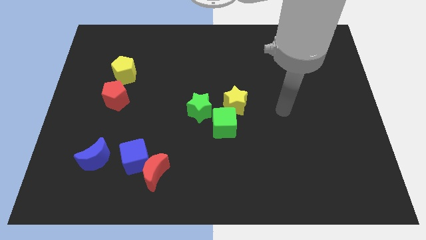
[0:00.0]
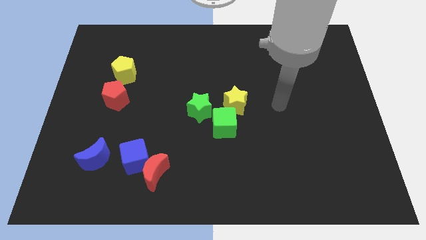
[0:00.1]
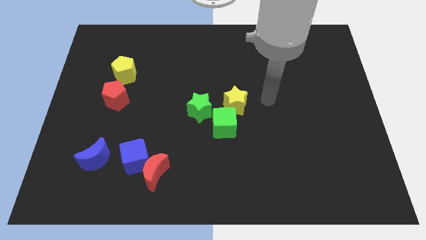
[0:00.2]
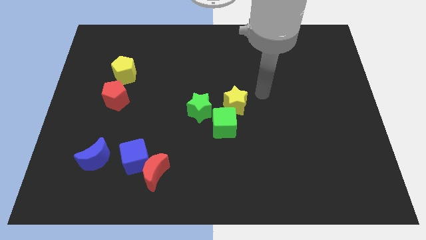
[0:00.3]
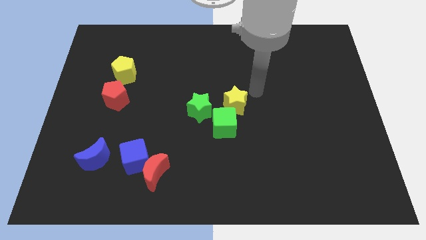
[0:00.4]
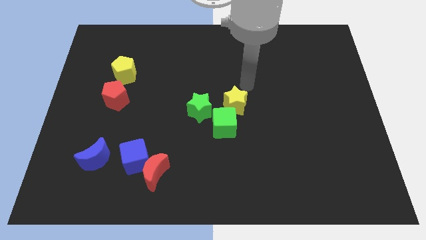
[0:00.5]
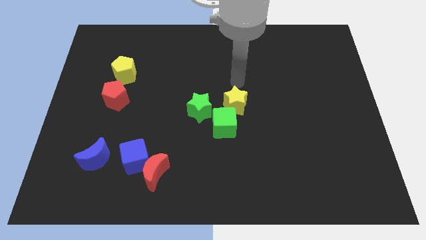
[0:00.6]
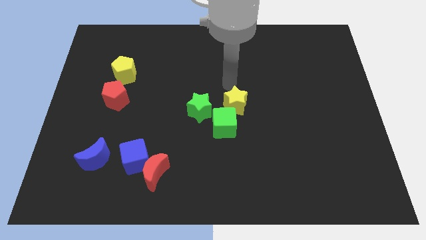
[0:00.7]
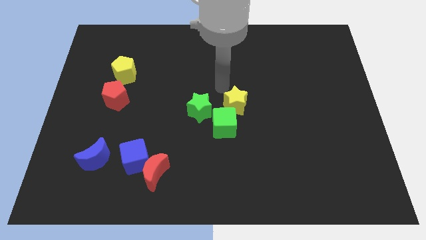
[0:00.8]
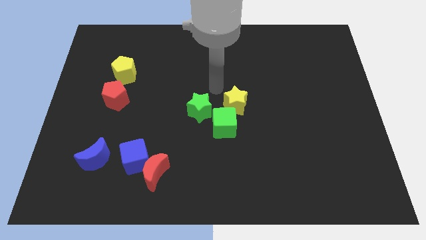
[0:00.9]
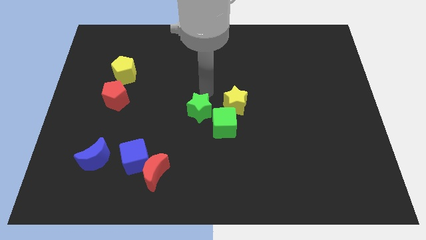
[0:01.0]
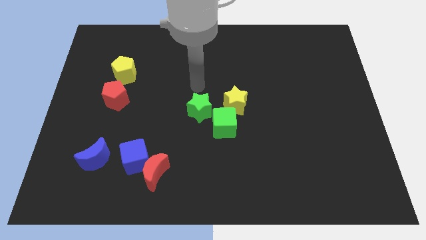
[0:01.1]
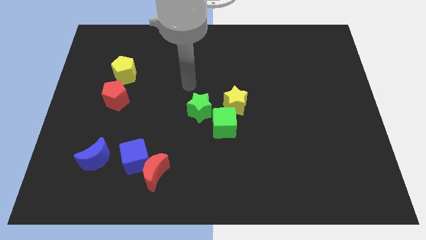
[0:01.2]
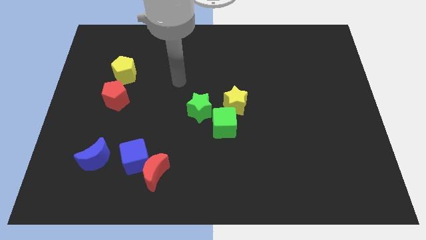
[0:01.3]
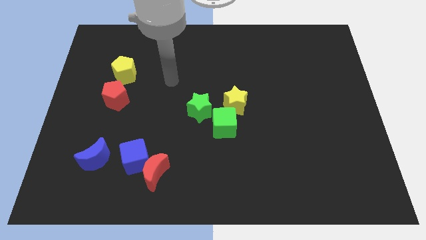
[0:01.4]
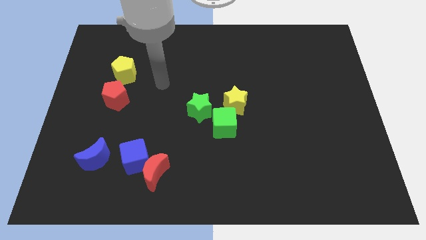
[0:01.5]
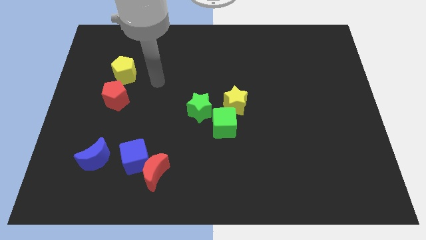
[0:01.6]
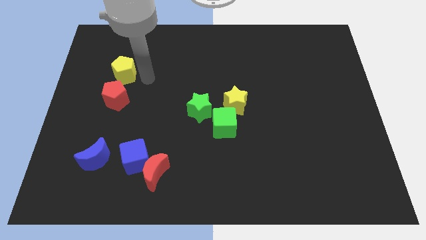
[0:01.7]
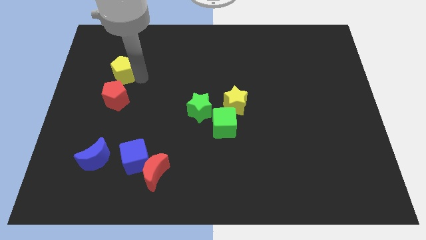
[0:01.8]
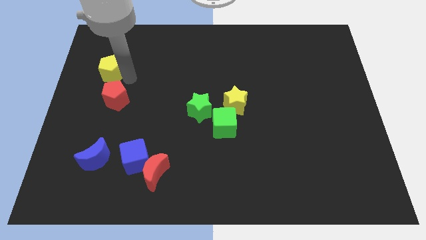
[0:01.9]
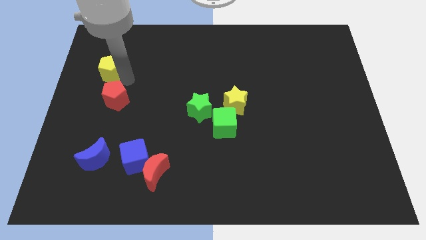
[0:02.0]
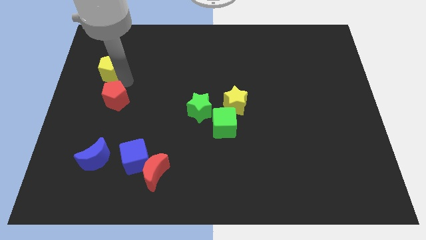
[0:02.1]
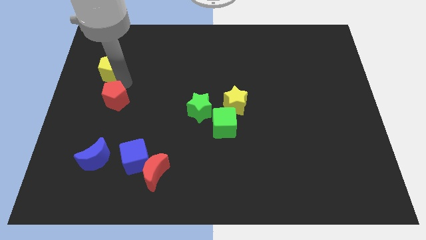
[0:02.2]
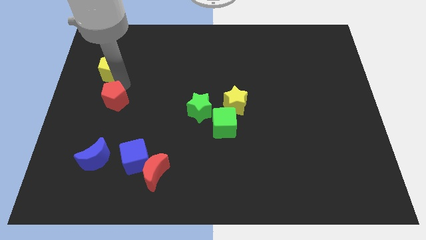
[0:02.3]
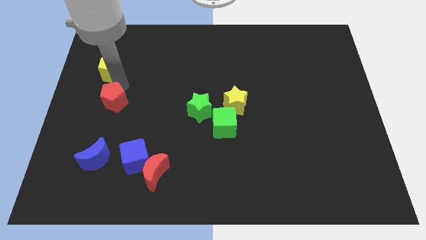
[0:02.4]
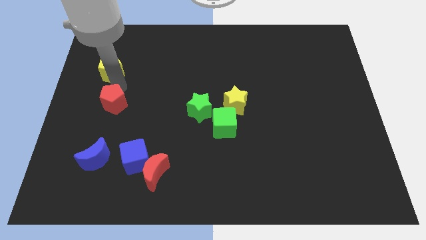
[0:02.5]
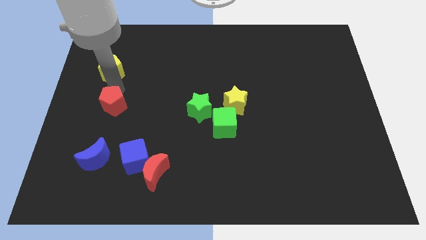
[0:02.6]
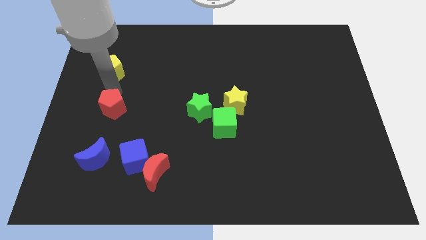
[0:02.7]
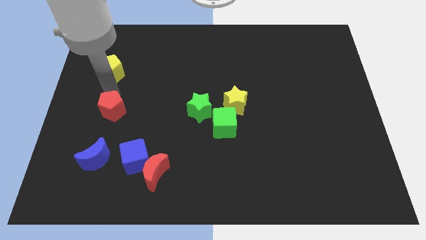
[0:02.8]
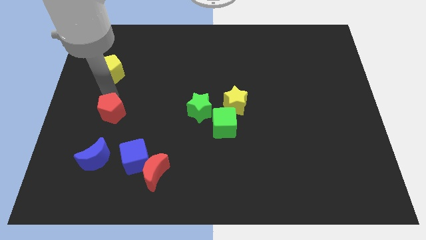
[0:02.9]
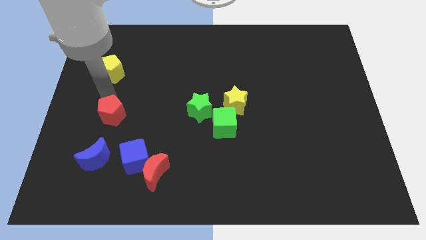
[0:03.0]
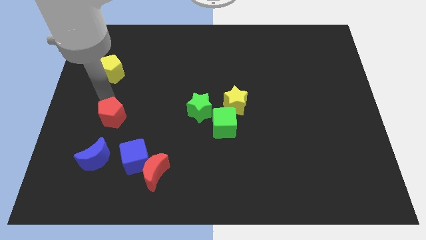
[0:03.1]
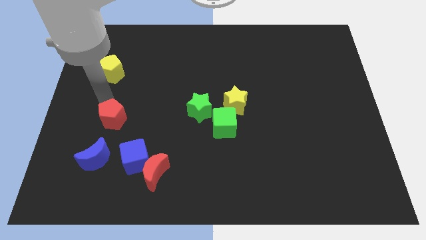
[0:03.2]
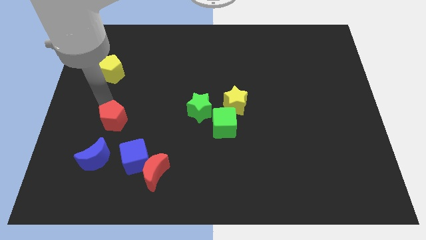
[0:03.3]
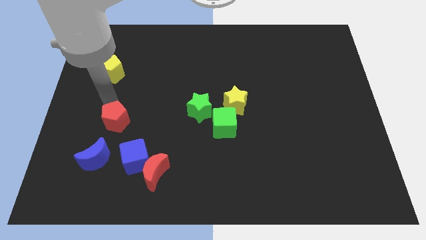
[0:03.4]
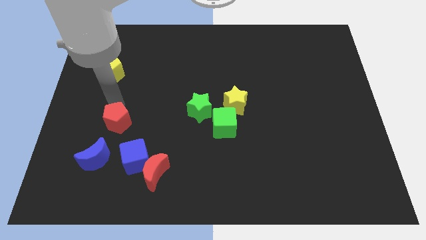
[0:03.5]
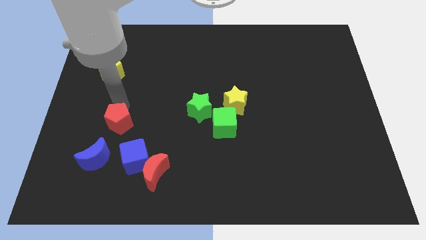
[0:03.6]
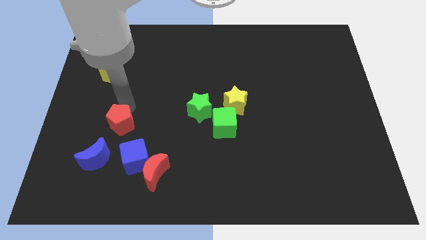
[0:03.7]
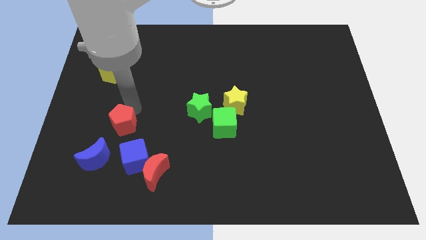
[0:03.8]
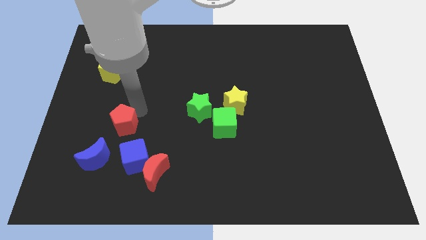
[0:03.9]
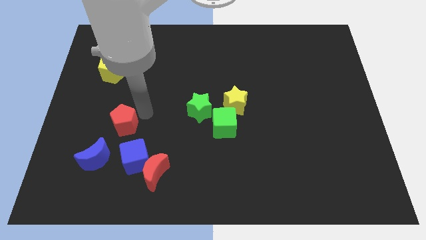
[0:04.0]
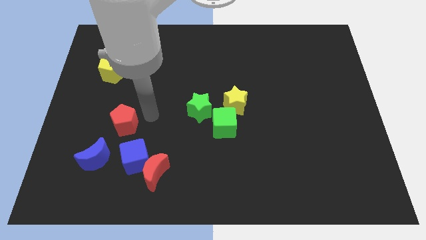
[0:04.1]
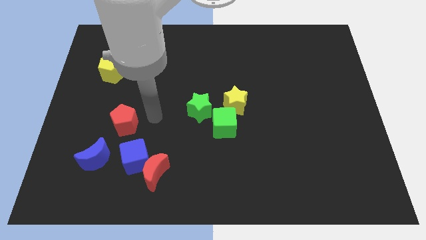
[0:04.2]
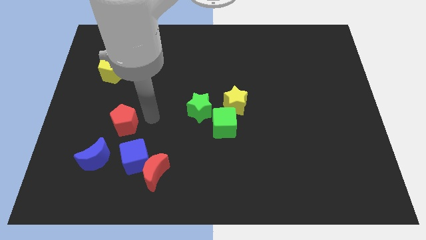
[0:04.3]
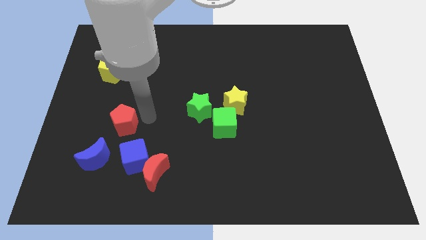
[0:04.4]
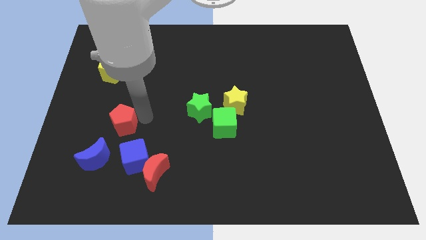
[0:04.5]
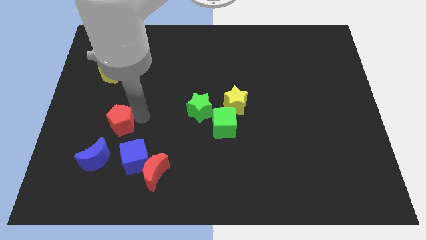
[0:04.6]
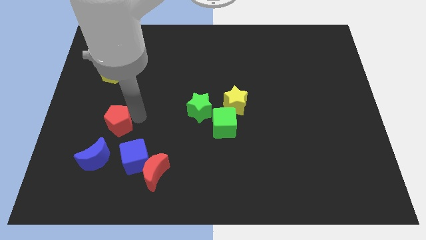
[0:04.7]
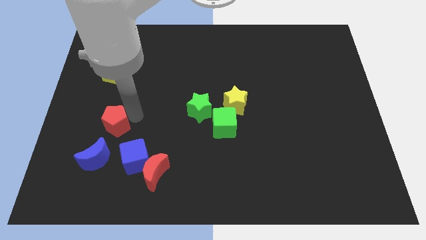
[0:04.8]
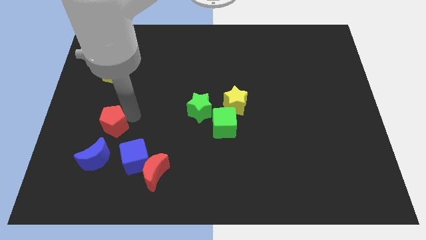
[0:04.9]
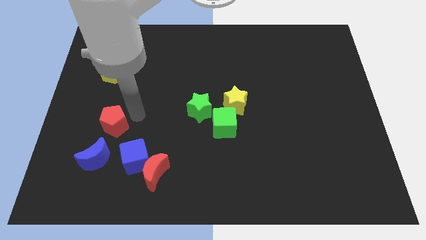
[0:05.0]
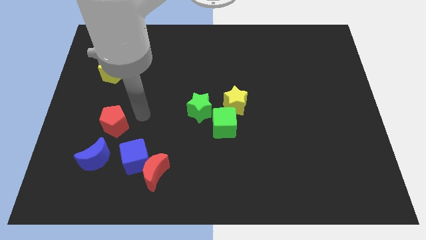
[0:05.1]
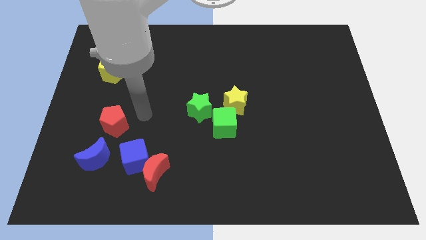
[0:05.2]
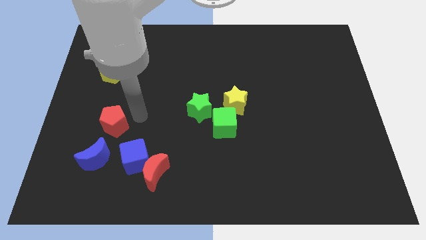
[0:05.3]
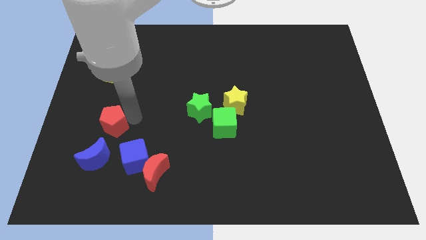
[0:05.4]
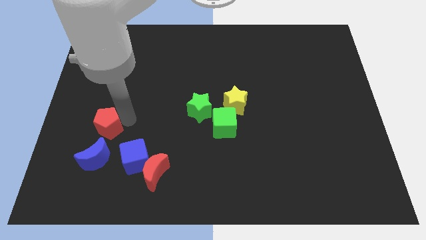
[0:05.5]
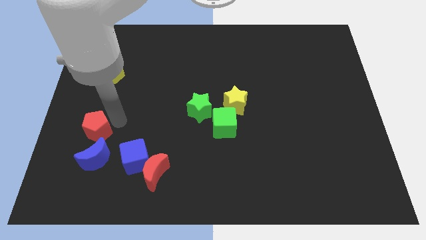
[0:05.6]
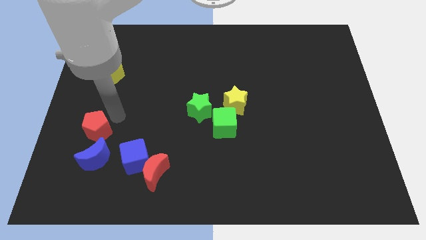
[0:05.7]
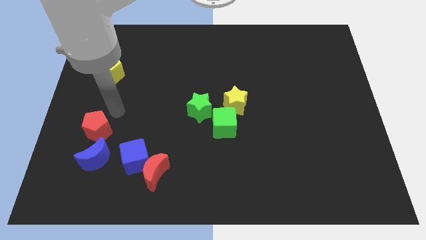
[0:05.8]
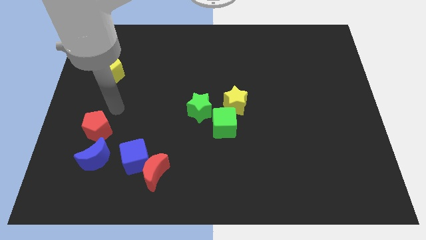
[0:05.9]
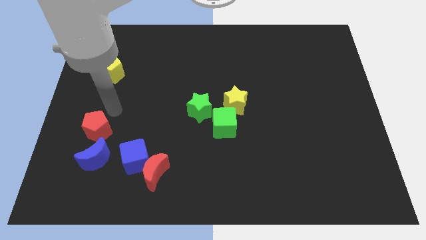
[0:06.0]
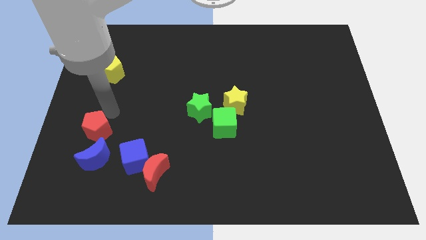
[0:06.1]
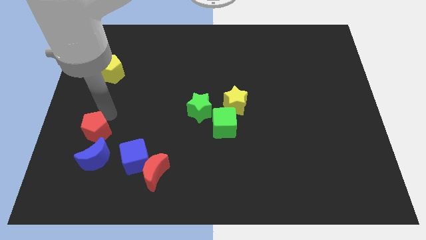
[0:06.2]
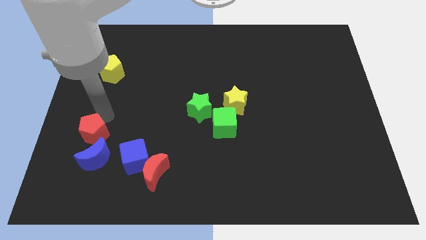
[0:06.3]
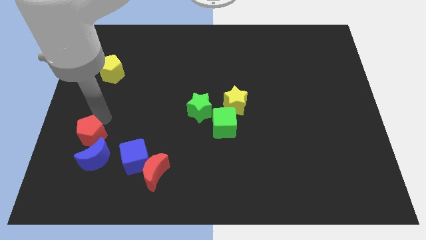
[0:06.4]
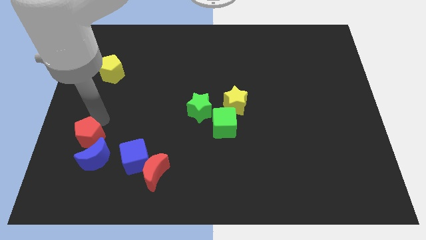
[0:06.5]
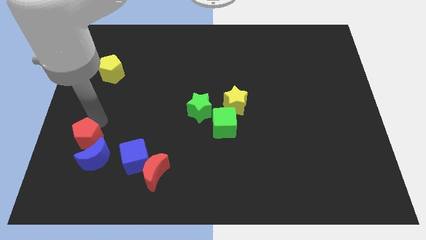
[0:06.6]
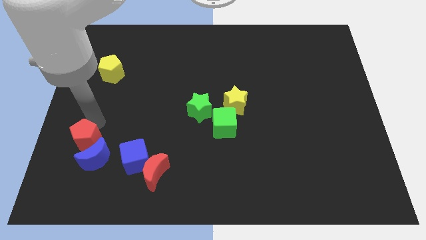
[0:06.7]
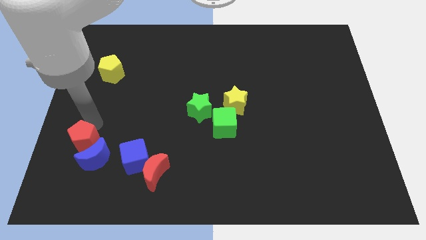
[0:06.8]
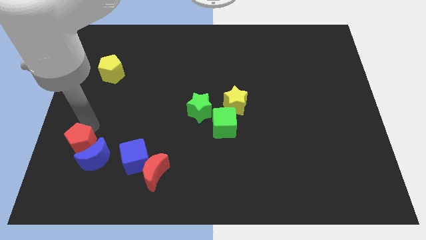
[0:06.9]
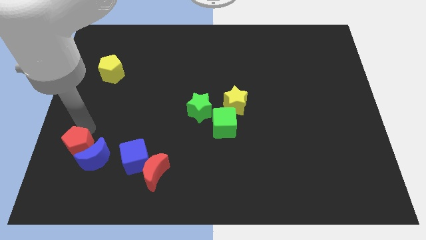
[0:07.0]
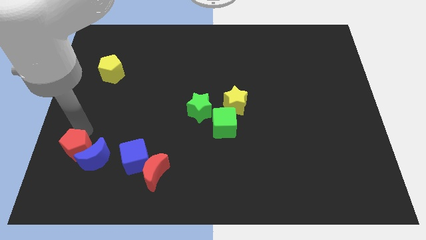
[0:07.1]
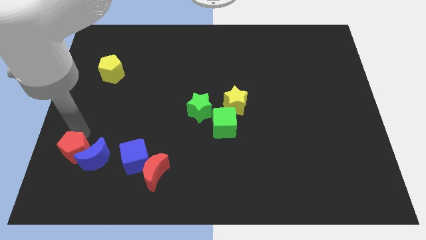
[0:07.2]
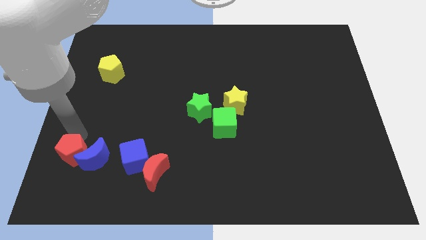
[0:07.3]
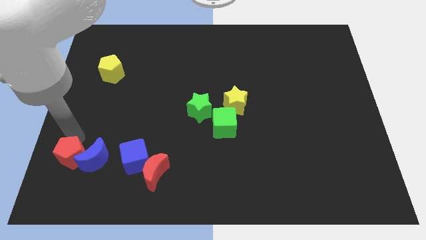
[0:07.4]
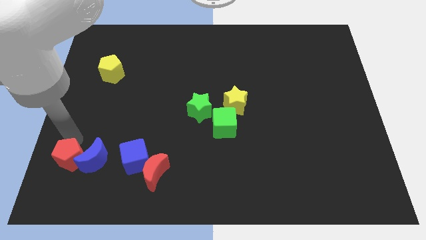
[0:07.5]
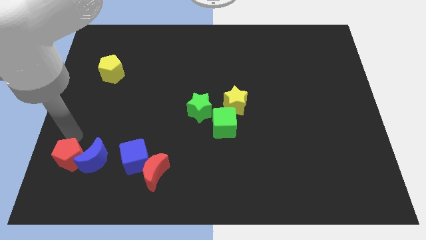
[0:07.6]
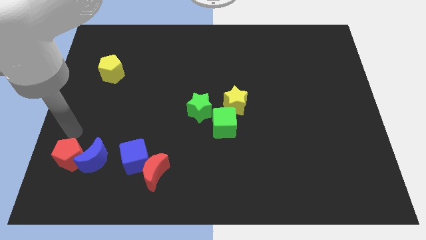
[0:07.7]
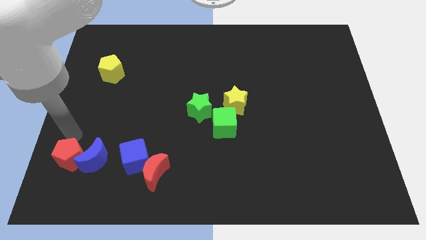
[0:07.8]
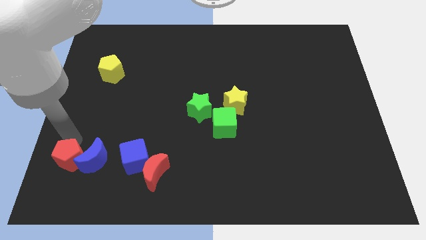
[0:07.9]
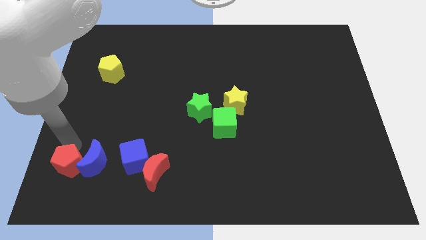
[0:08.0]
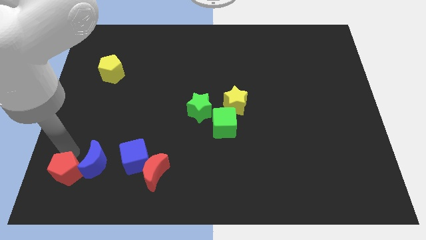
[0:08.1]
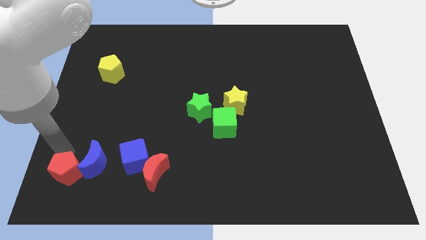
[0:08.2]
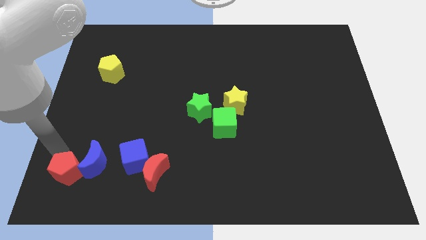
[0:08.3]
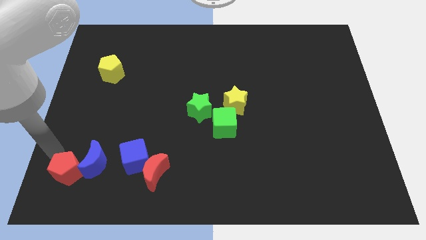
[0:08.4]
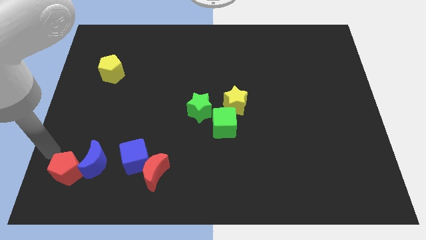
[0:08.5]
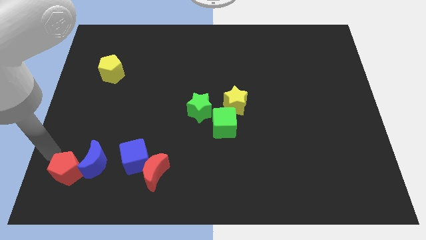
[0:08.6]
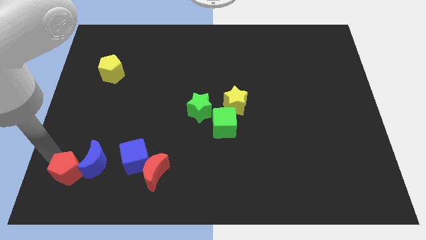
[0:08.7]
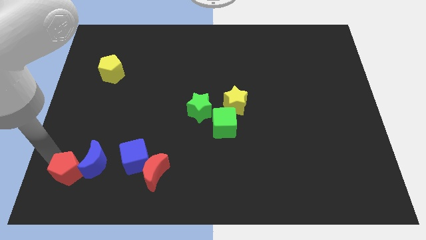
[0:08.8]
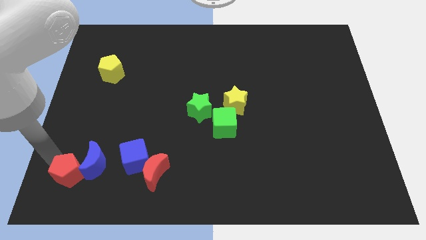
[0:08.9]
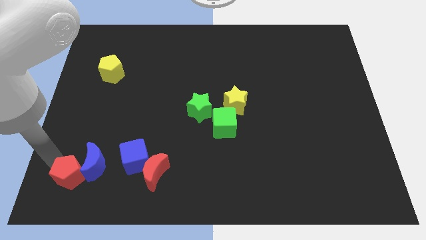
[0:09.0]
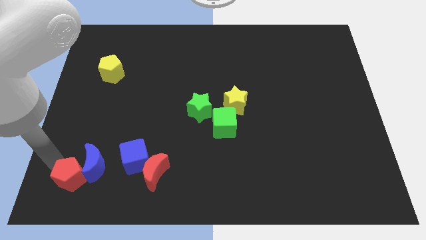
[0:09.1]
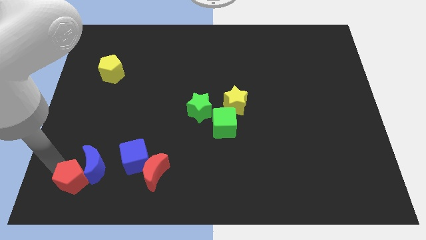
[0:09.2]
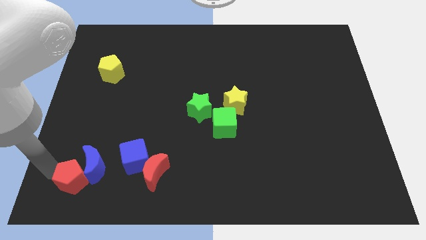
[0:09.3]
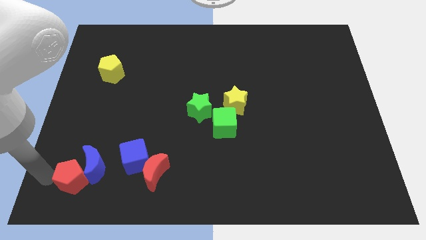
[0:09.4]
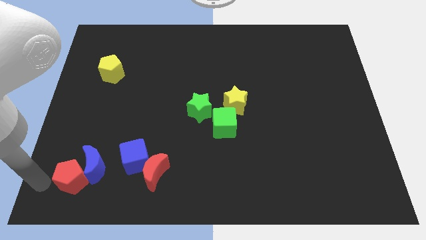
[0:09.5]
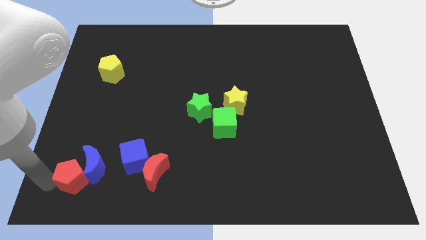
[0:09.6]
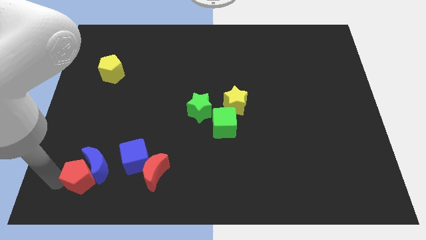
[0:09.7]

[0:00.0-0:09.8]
push the red pentagon to the left of the red moon
